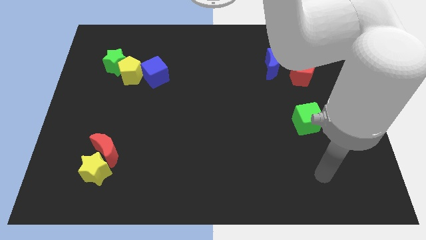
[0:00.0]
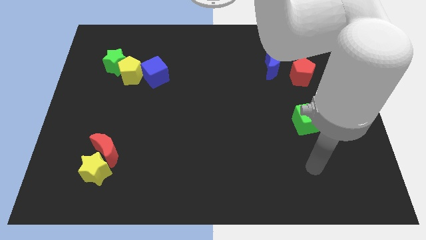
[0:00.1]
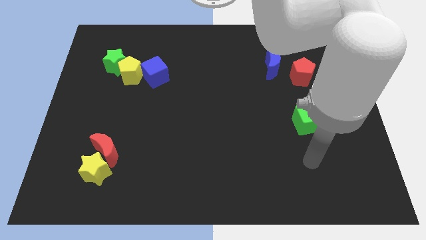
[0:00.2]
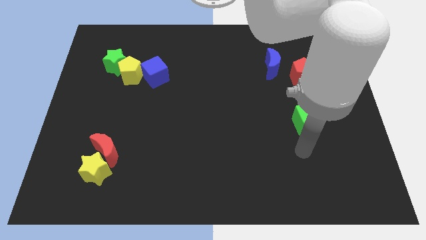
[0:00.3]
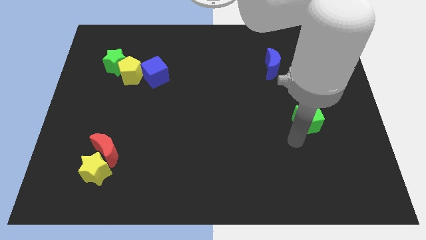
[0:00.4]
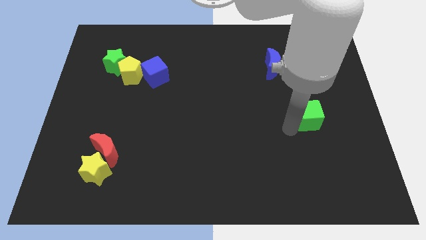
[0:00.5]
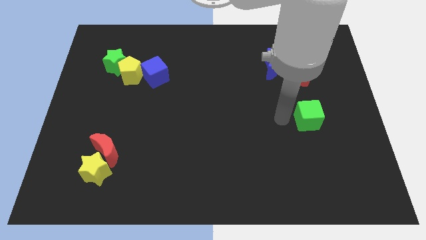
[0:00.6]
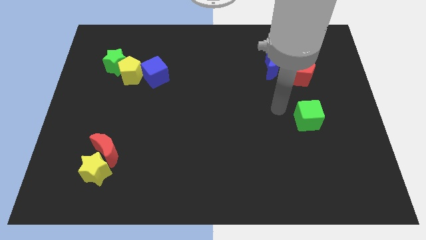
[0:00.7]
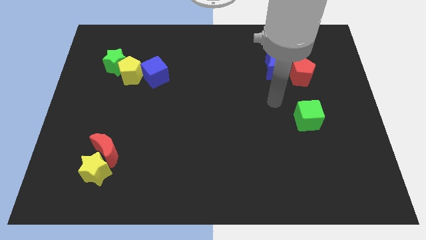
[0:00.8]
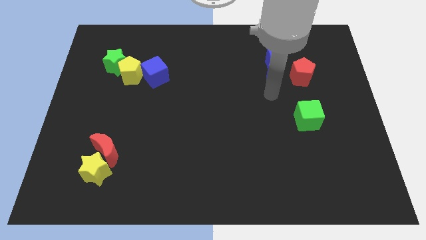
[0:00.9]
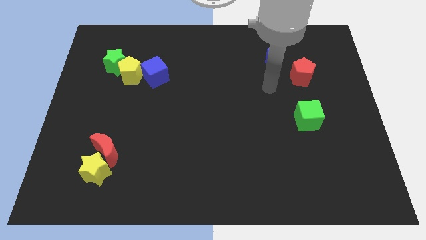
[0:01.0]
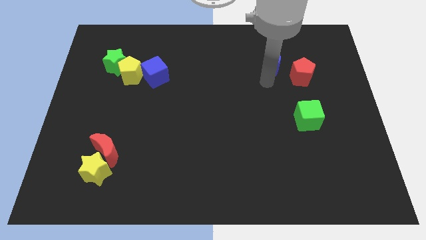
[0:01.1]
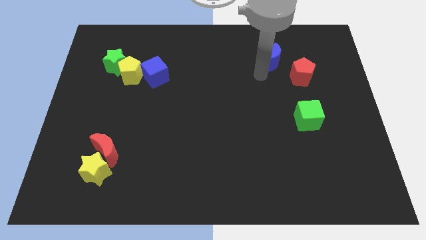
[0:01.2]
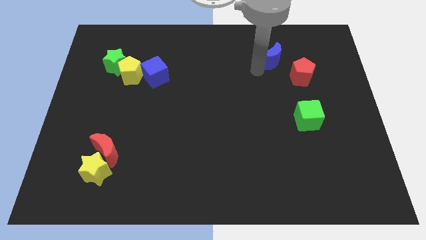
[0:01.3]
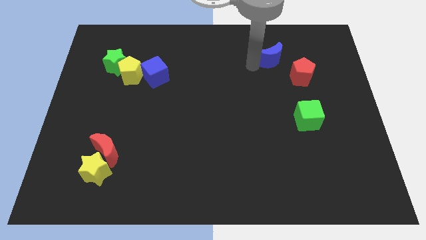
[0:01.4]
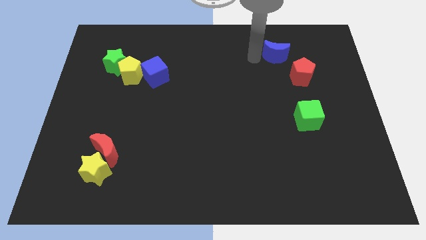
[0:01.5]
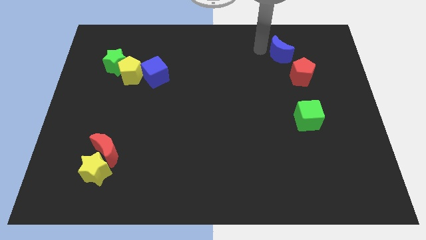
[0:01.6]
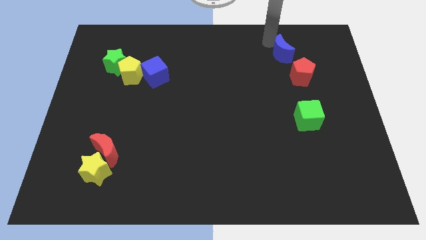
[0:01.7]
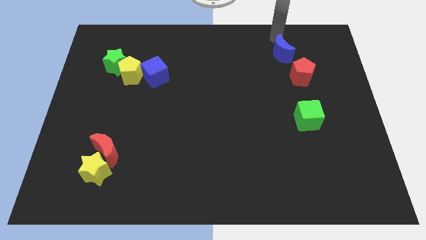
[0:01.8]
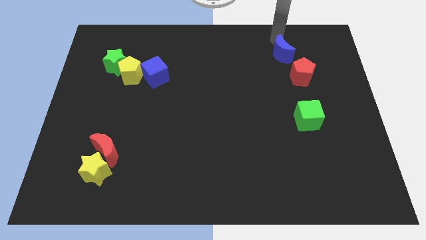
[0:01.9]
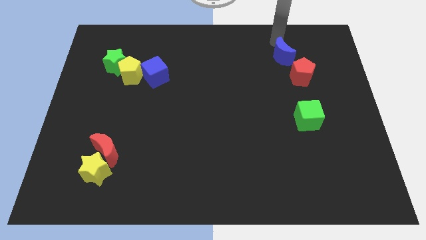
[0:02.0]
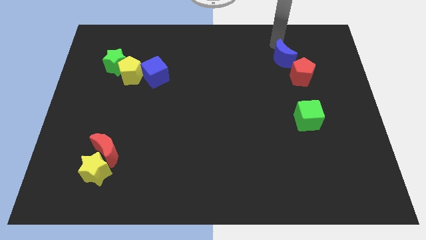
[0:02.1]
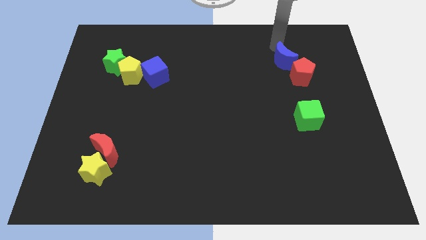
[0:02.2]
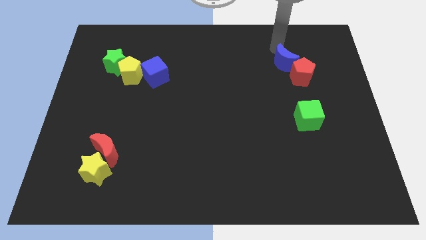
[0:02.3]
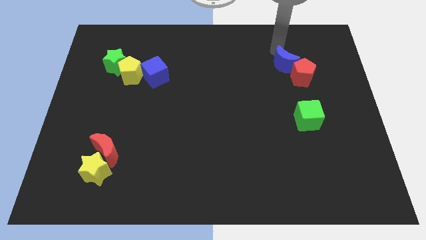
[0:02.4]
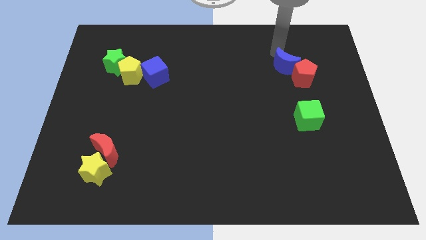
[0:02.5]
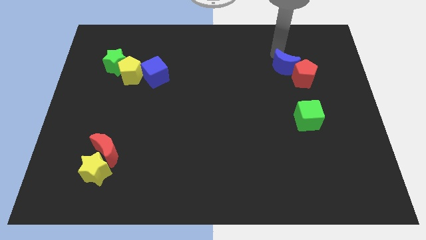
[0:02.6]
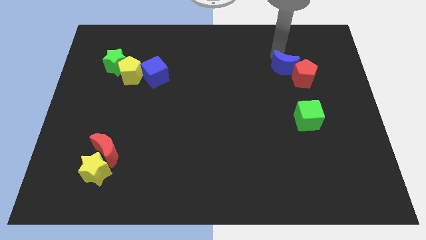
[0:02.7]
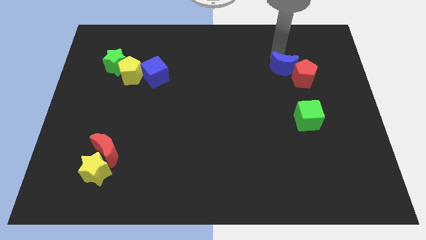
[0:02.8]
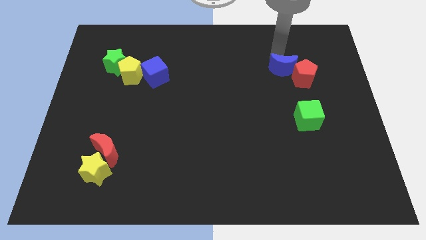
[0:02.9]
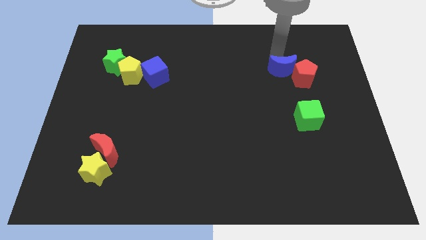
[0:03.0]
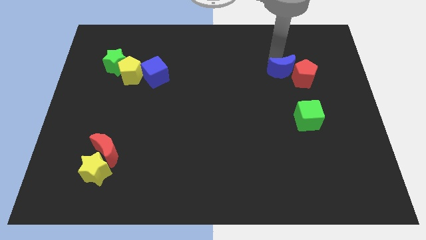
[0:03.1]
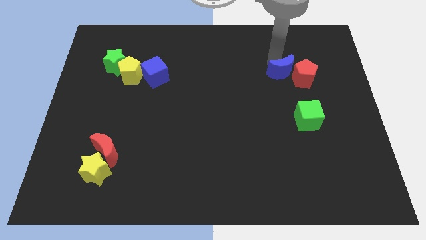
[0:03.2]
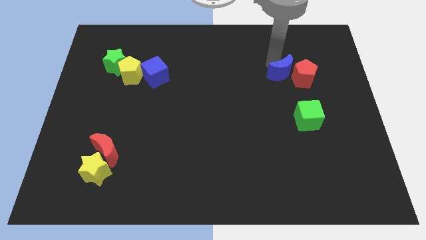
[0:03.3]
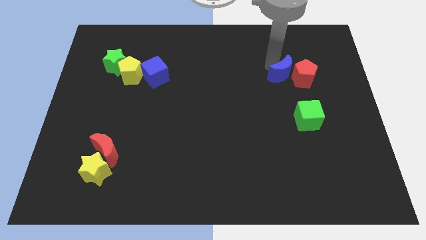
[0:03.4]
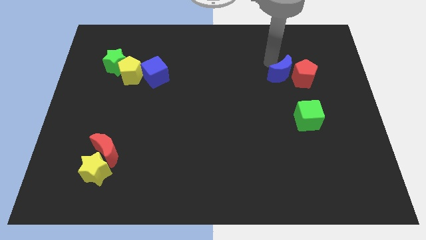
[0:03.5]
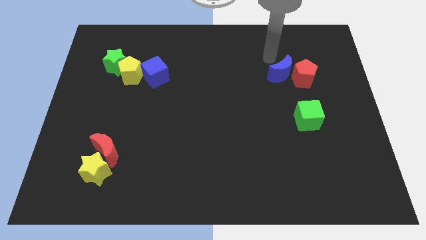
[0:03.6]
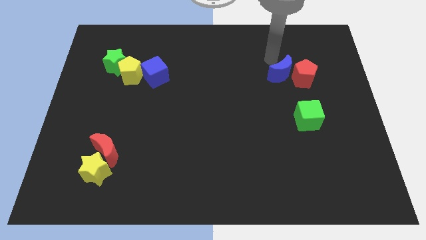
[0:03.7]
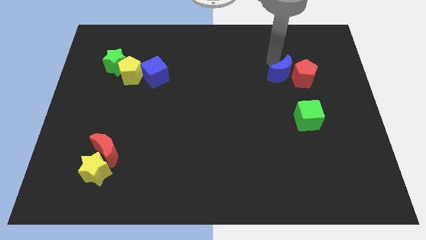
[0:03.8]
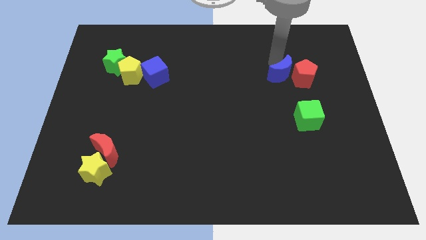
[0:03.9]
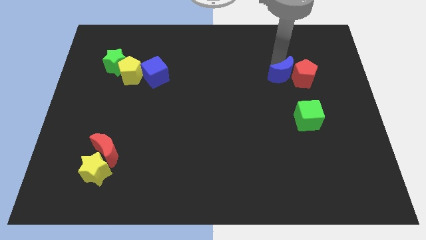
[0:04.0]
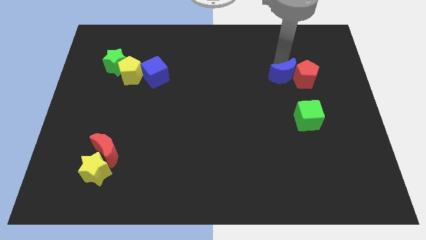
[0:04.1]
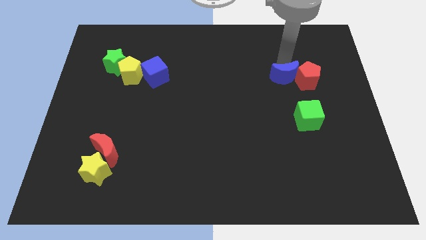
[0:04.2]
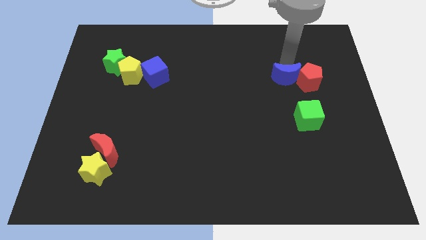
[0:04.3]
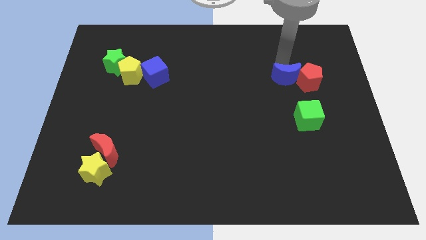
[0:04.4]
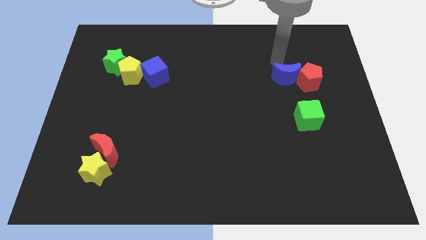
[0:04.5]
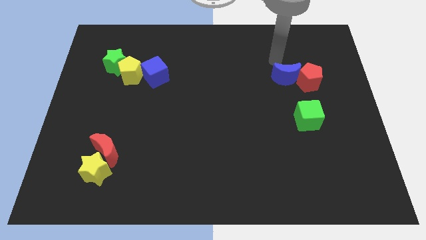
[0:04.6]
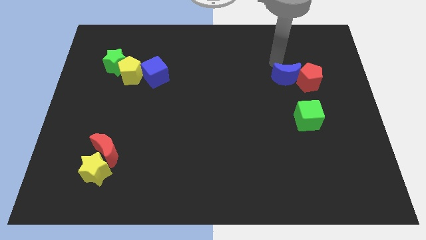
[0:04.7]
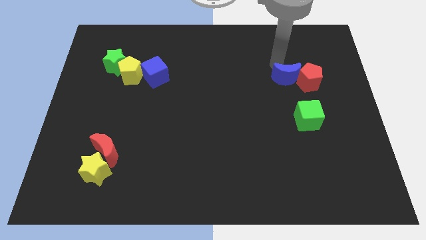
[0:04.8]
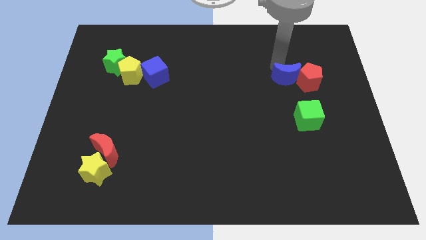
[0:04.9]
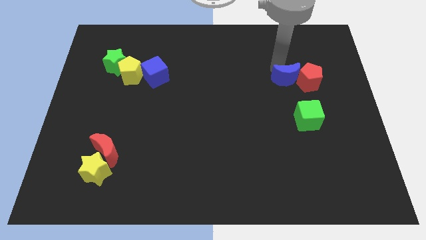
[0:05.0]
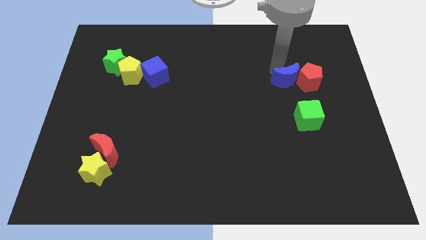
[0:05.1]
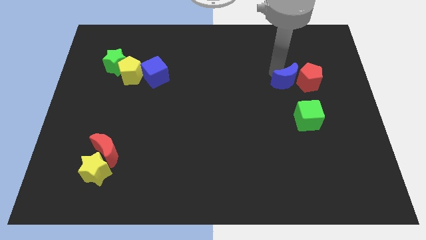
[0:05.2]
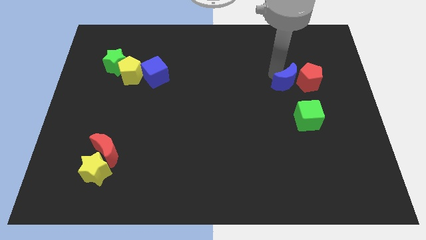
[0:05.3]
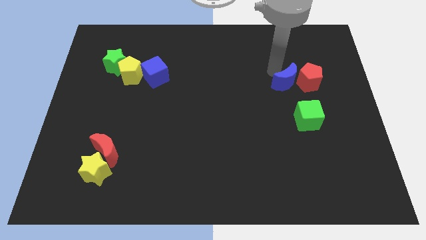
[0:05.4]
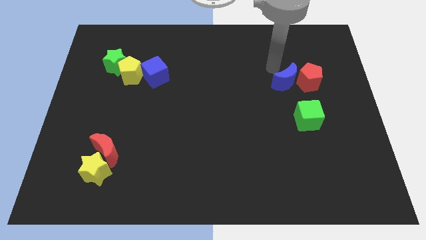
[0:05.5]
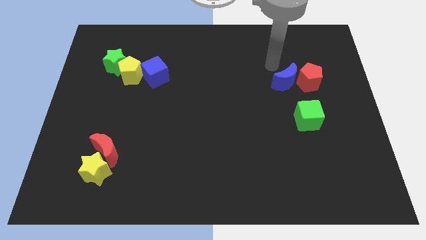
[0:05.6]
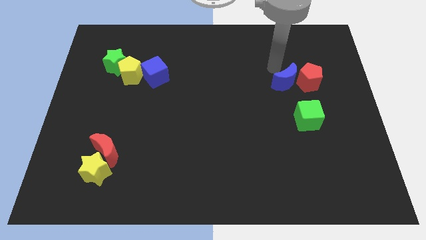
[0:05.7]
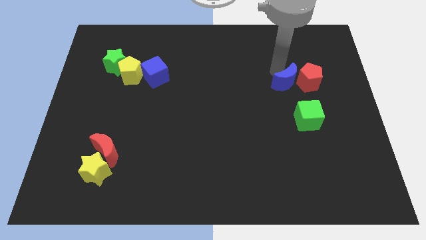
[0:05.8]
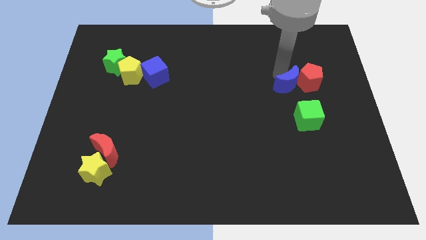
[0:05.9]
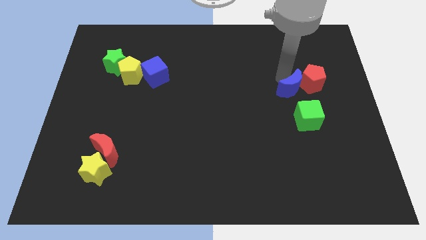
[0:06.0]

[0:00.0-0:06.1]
slightly slide the blue moon down and right diagonally

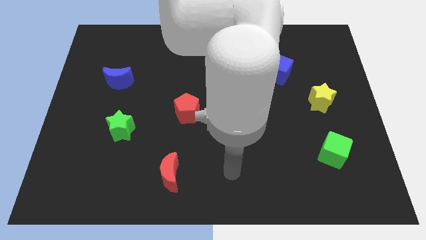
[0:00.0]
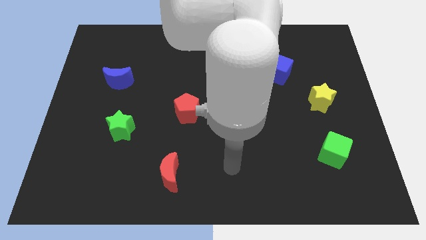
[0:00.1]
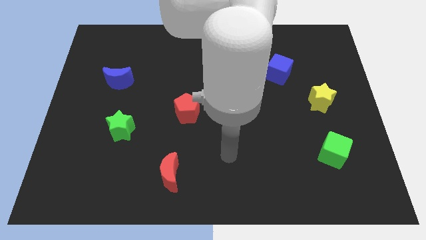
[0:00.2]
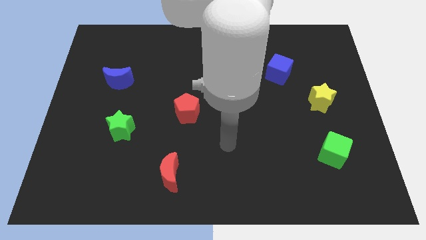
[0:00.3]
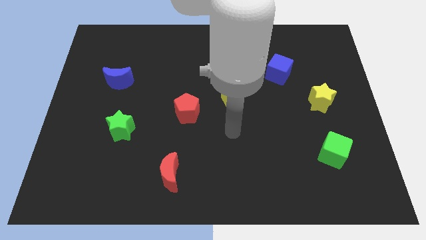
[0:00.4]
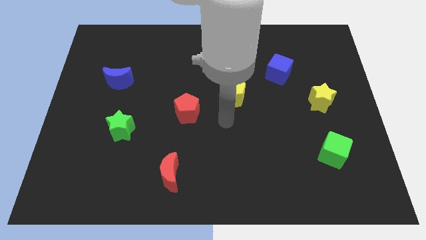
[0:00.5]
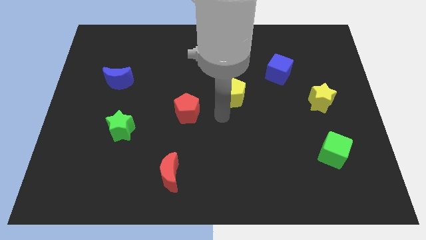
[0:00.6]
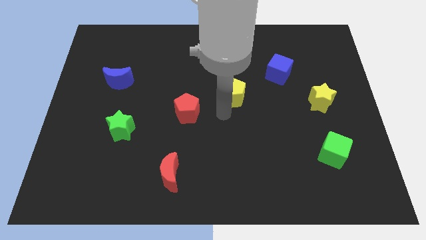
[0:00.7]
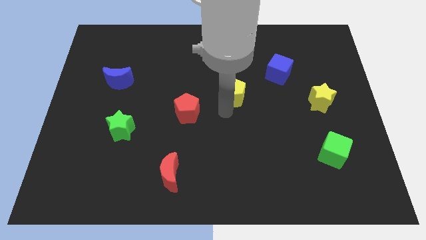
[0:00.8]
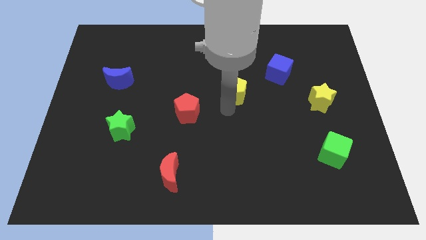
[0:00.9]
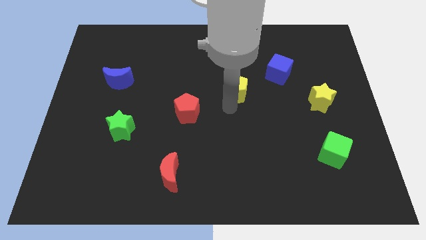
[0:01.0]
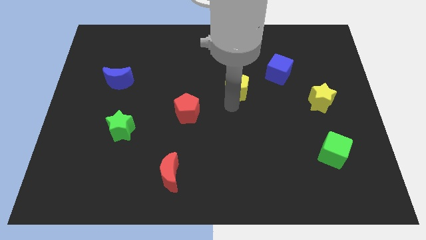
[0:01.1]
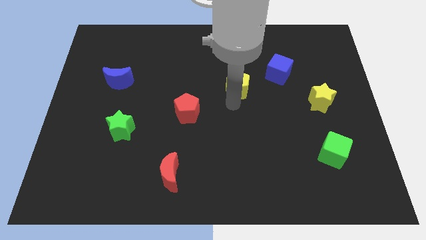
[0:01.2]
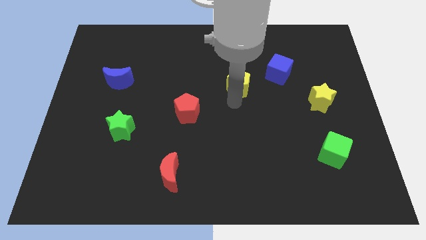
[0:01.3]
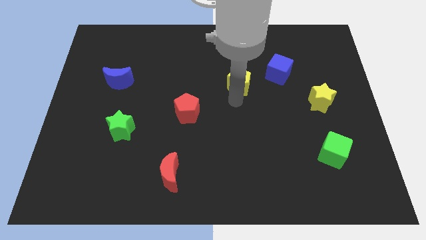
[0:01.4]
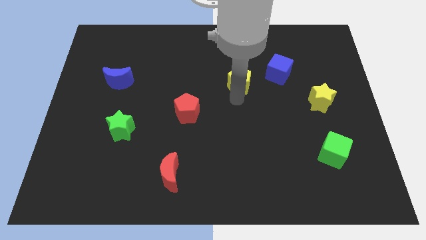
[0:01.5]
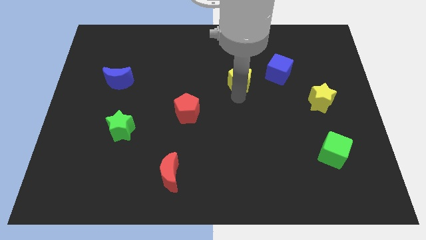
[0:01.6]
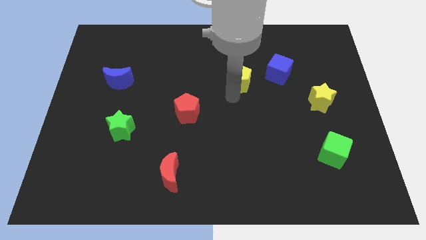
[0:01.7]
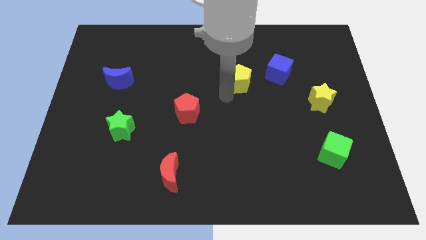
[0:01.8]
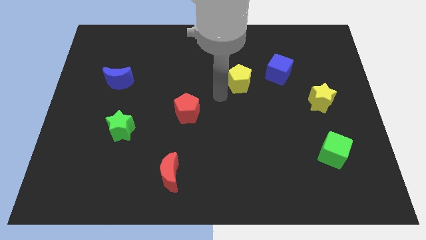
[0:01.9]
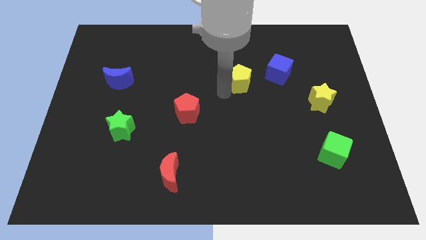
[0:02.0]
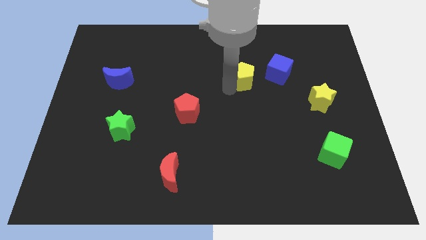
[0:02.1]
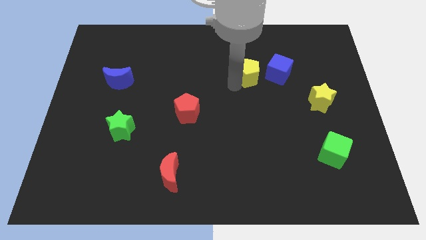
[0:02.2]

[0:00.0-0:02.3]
slightly push the yellow pentagon diagonally up and right
